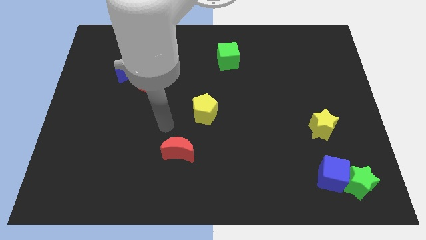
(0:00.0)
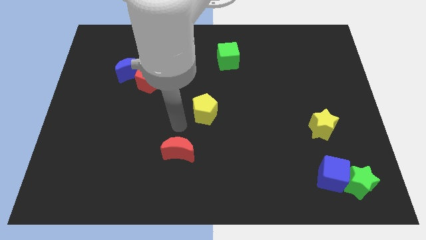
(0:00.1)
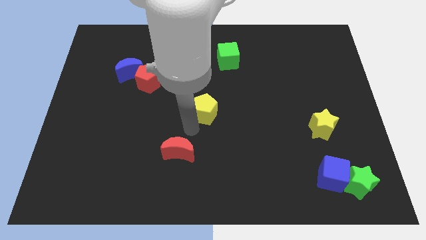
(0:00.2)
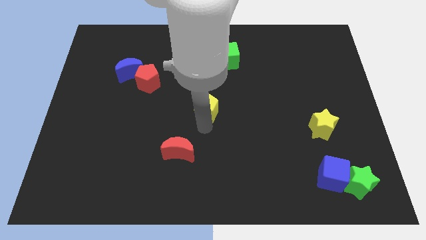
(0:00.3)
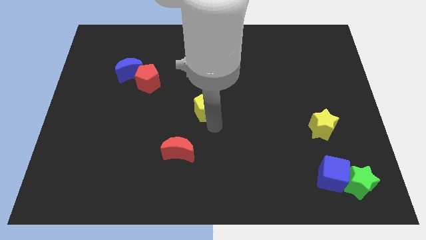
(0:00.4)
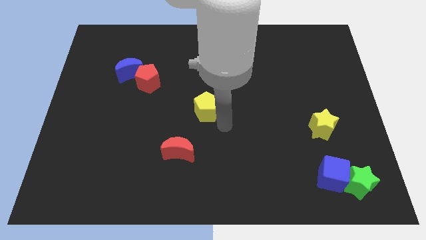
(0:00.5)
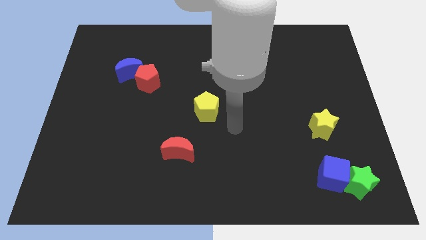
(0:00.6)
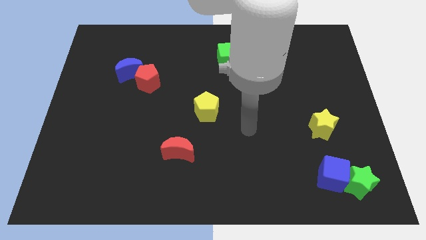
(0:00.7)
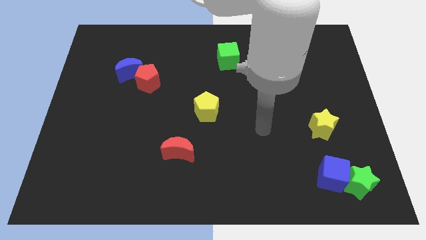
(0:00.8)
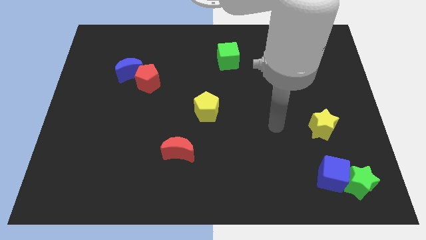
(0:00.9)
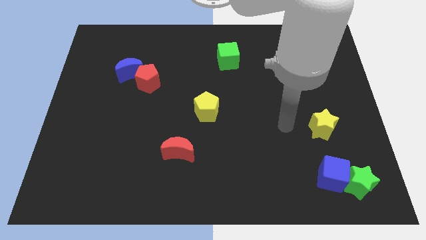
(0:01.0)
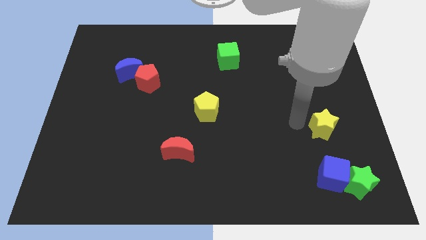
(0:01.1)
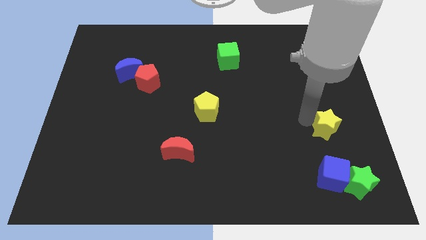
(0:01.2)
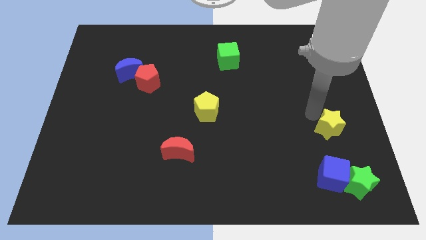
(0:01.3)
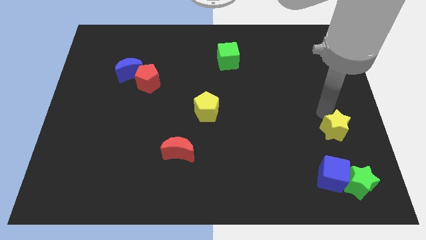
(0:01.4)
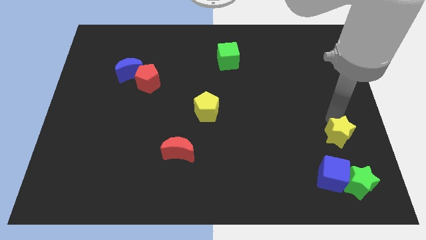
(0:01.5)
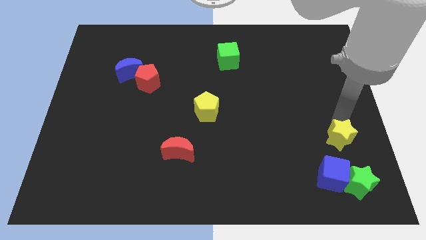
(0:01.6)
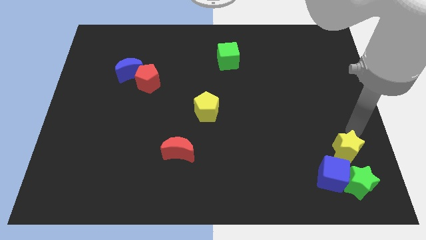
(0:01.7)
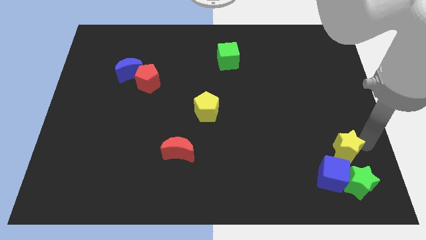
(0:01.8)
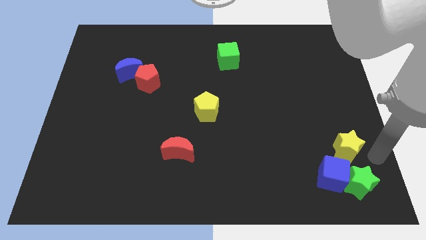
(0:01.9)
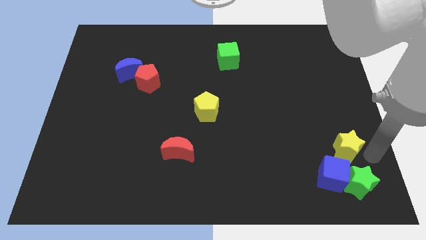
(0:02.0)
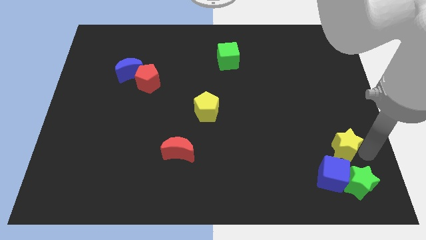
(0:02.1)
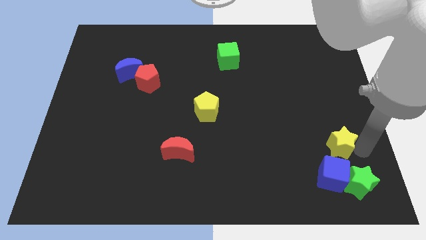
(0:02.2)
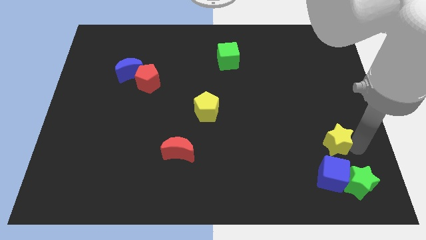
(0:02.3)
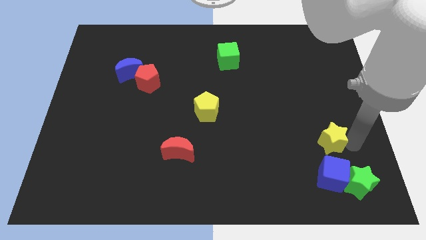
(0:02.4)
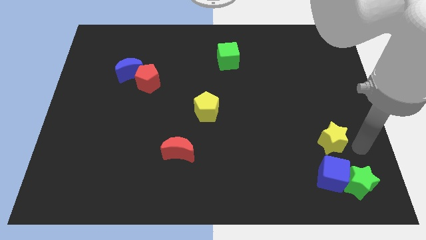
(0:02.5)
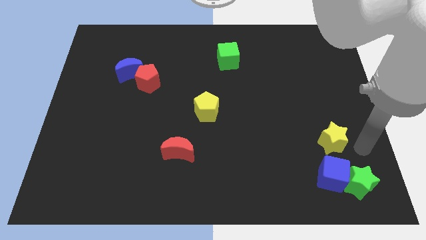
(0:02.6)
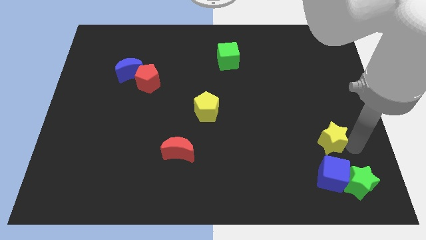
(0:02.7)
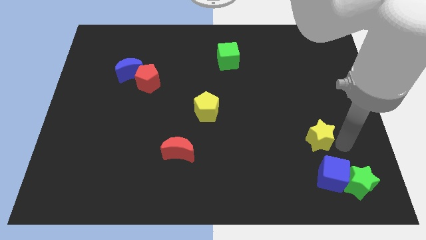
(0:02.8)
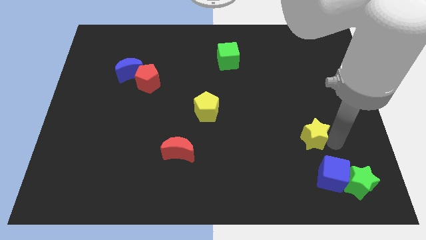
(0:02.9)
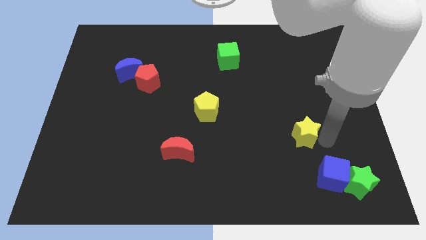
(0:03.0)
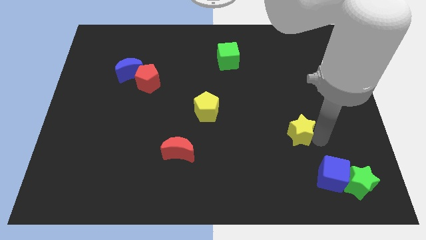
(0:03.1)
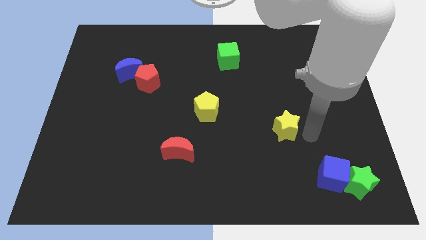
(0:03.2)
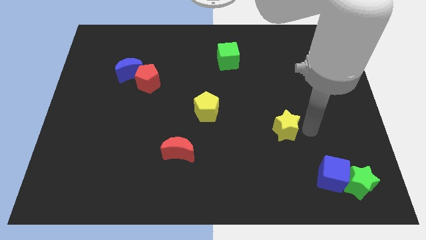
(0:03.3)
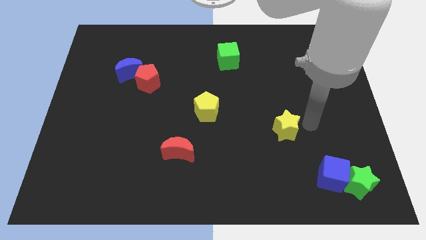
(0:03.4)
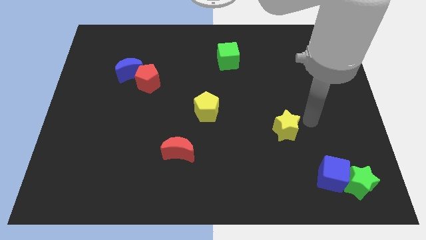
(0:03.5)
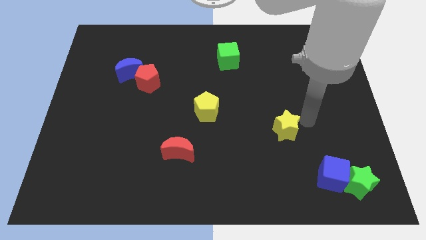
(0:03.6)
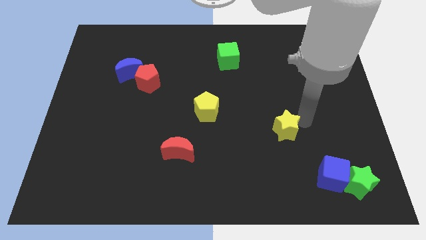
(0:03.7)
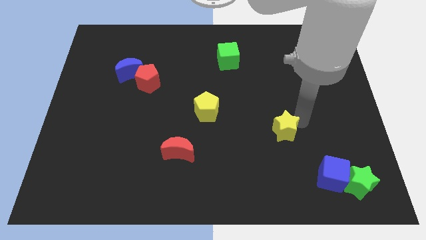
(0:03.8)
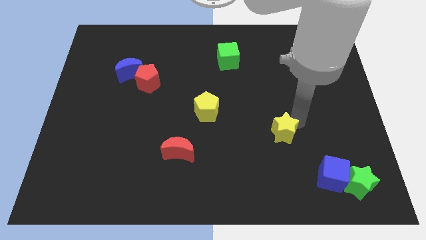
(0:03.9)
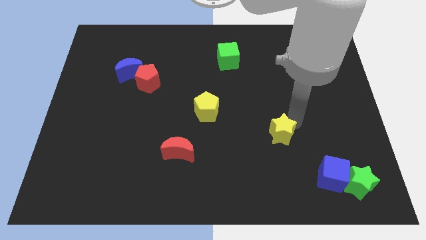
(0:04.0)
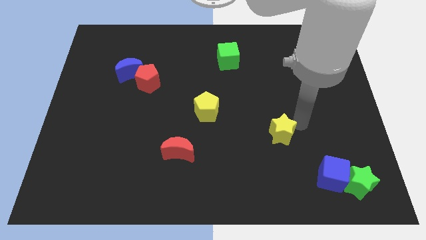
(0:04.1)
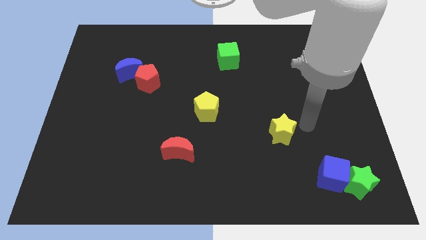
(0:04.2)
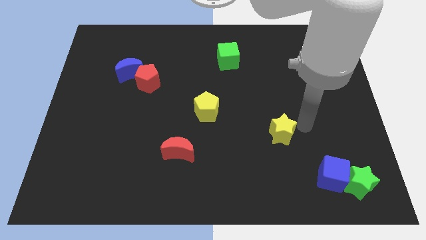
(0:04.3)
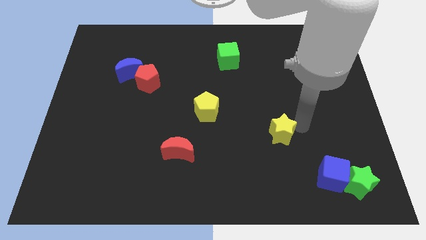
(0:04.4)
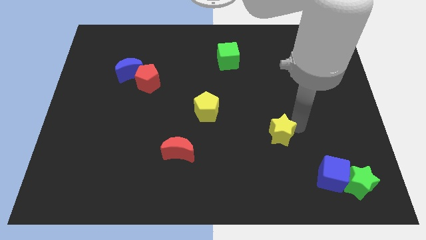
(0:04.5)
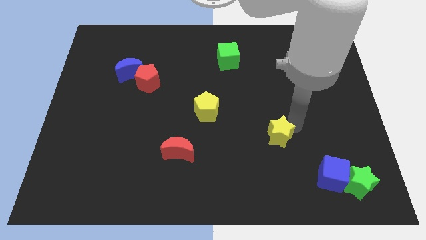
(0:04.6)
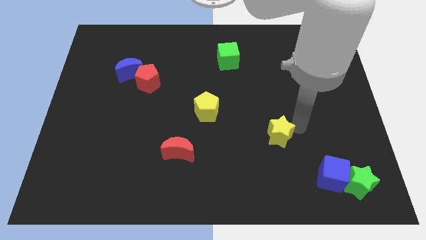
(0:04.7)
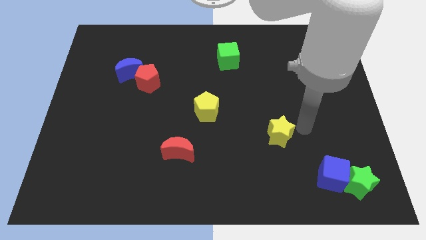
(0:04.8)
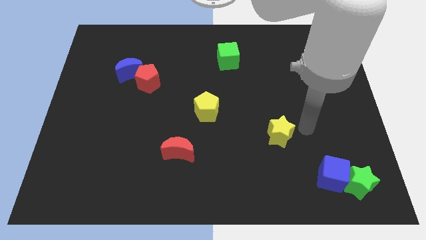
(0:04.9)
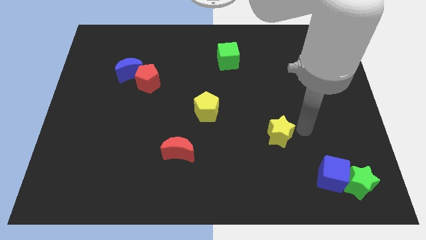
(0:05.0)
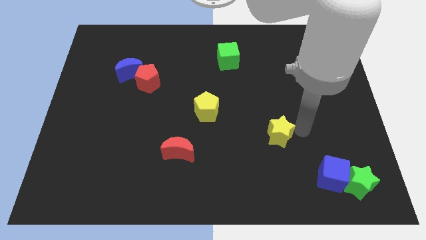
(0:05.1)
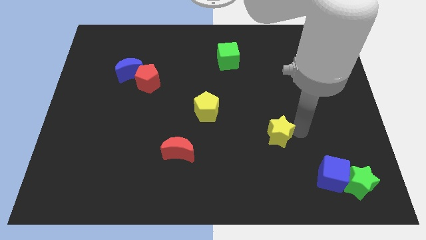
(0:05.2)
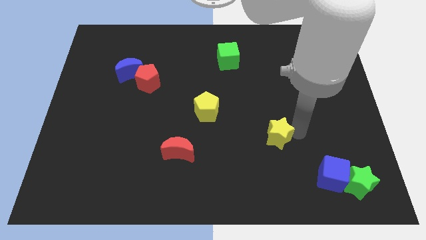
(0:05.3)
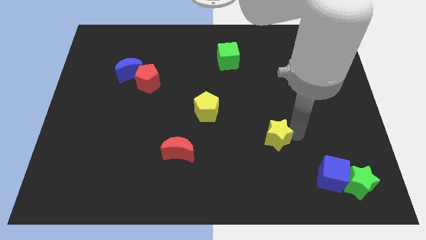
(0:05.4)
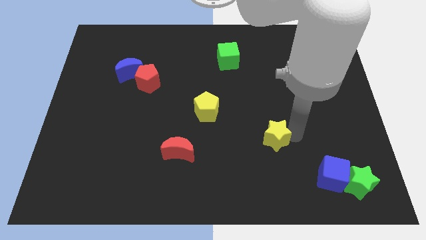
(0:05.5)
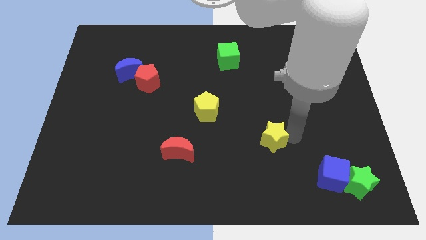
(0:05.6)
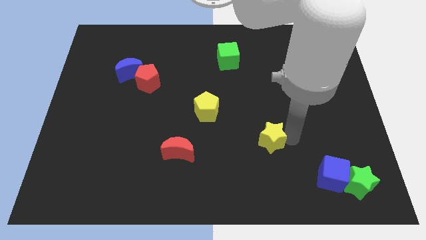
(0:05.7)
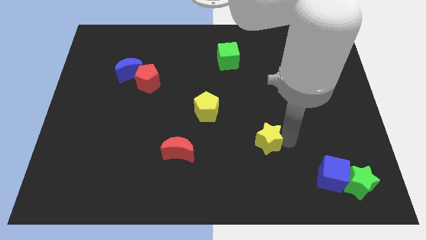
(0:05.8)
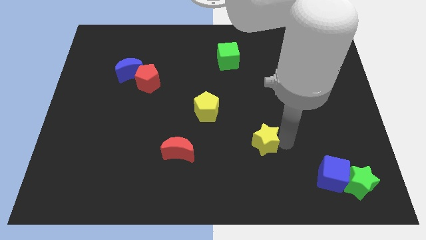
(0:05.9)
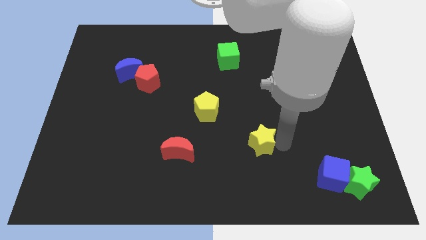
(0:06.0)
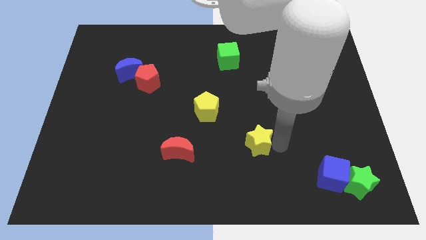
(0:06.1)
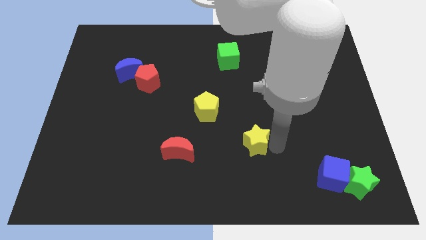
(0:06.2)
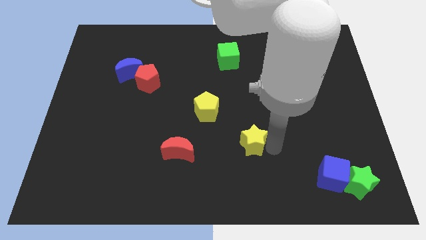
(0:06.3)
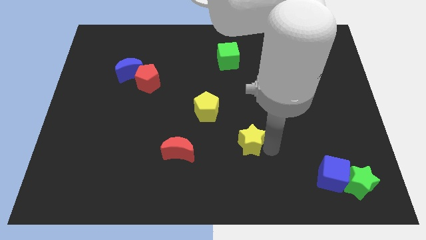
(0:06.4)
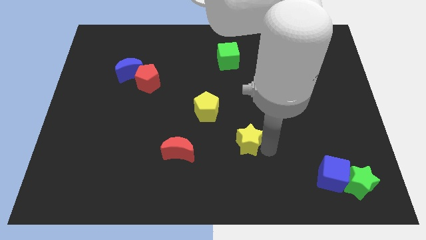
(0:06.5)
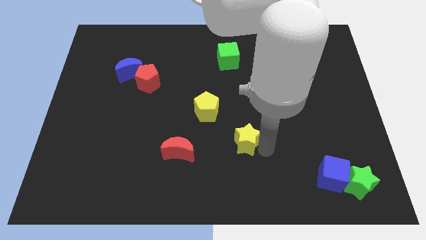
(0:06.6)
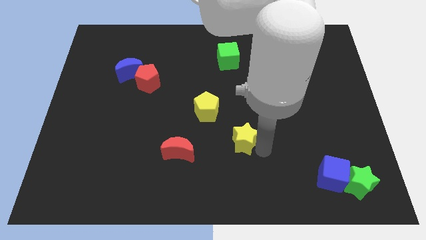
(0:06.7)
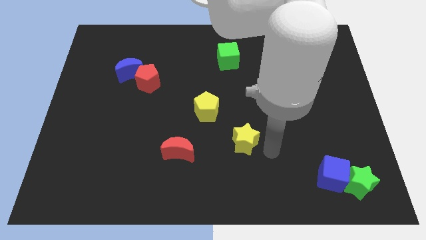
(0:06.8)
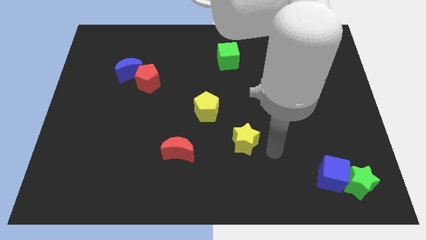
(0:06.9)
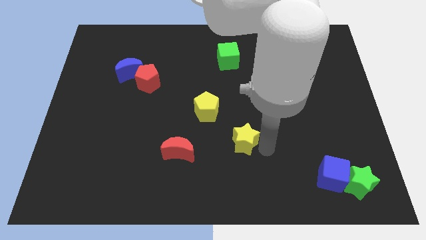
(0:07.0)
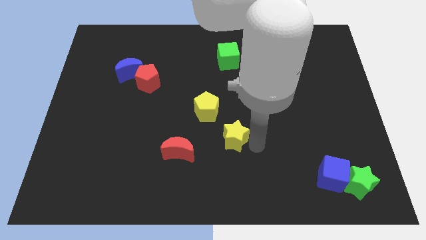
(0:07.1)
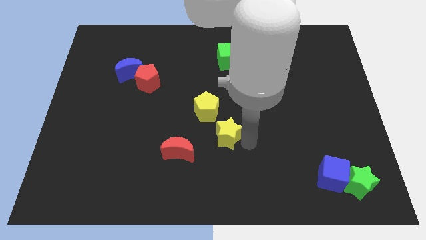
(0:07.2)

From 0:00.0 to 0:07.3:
move the yellow star left

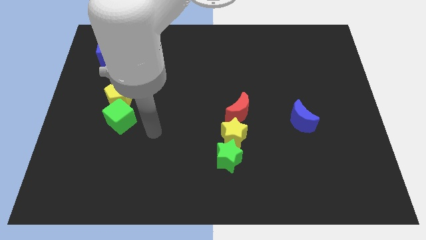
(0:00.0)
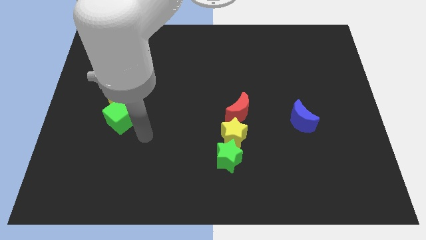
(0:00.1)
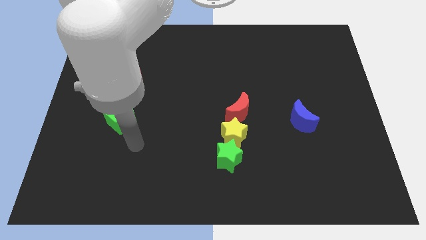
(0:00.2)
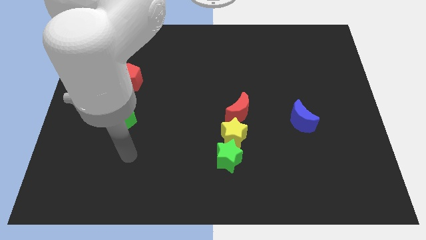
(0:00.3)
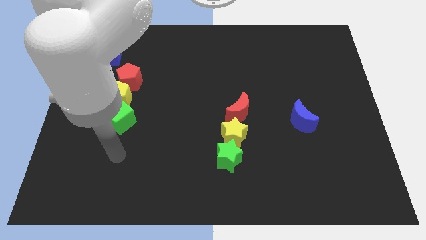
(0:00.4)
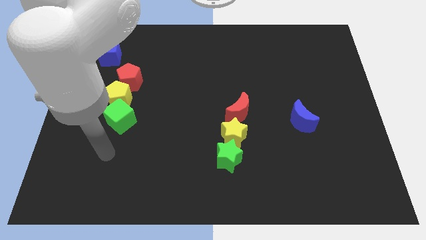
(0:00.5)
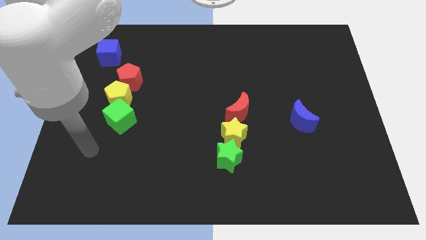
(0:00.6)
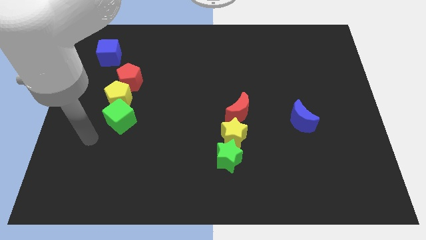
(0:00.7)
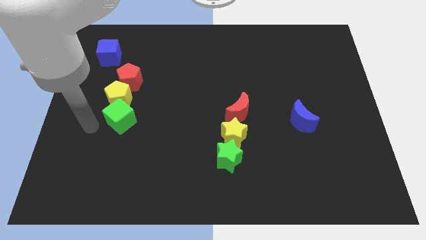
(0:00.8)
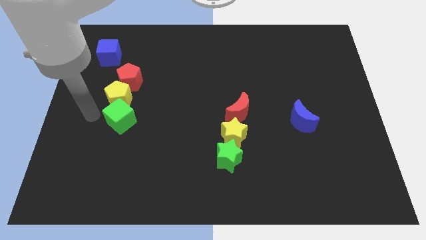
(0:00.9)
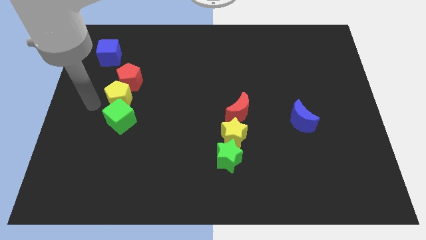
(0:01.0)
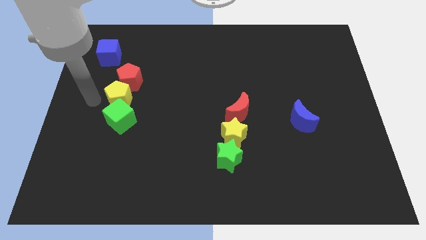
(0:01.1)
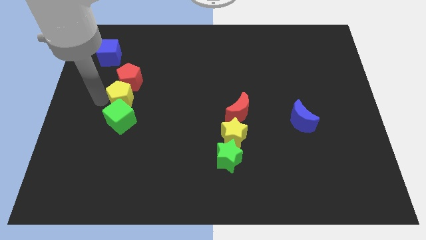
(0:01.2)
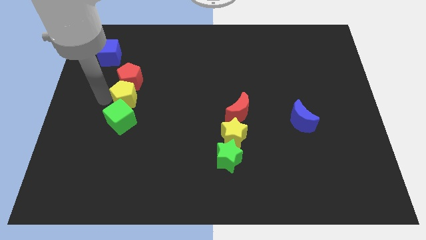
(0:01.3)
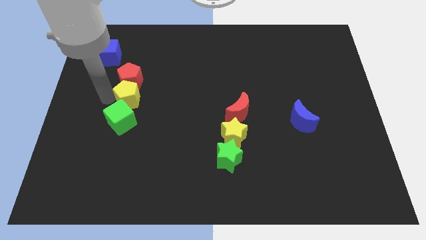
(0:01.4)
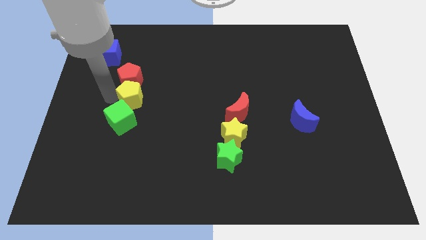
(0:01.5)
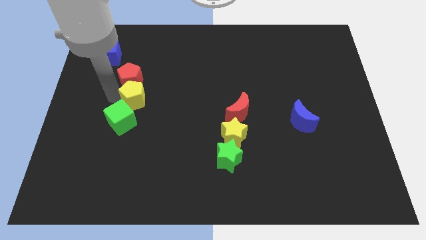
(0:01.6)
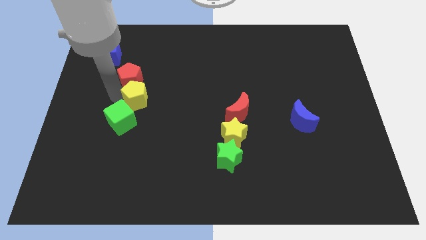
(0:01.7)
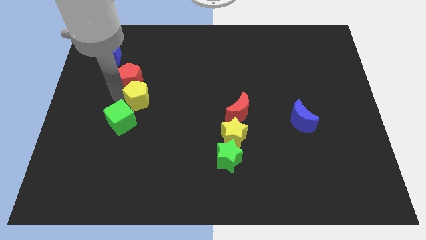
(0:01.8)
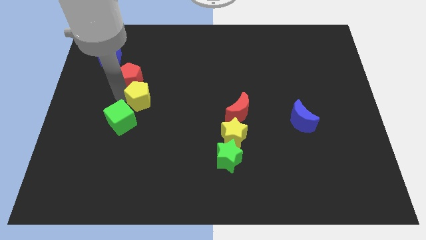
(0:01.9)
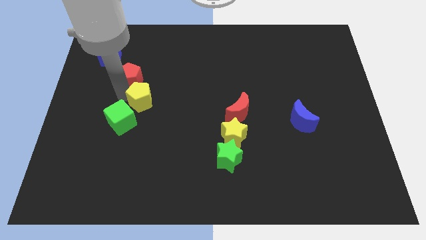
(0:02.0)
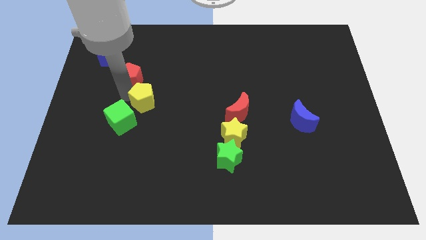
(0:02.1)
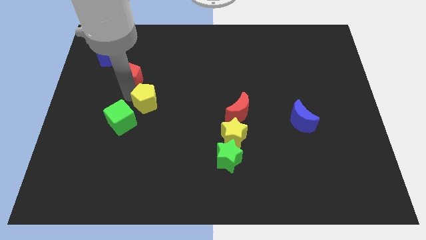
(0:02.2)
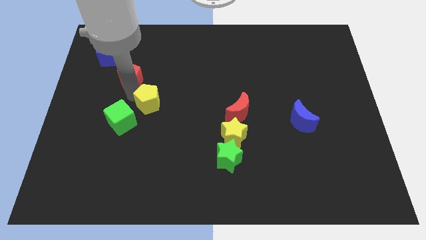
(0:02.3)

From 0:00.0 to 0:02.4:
move the yellow pentagon to the right a bit
